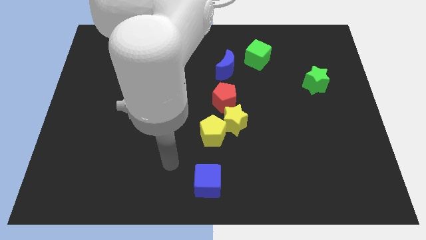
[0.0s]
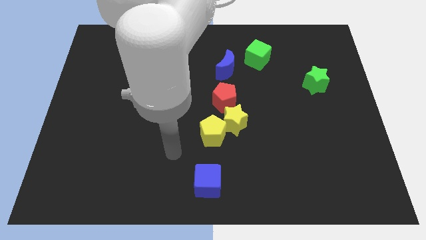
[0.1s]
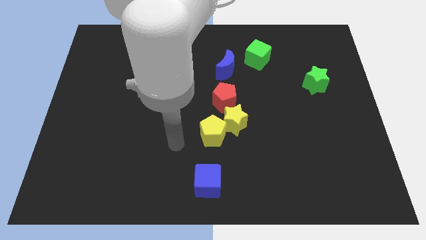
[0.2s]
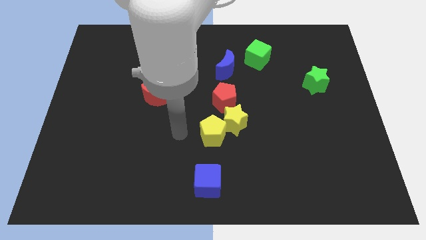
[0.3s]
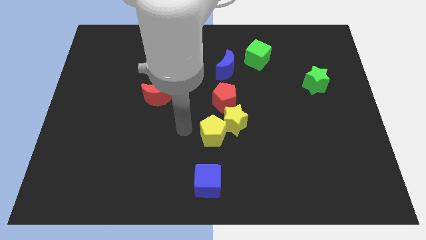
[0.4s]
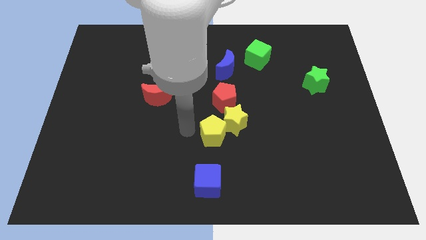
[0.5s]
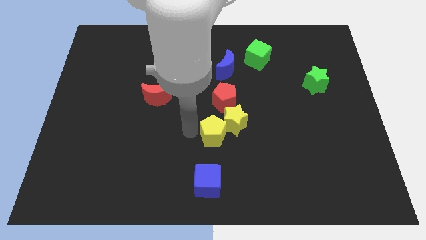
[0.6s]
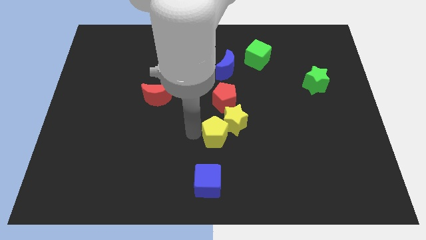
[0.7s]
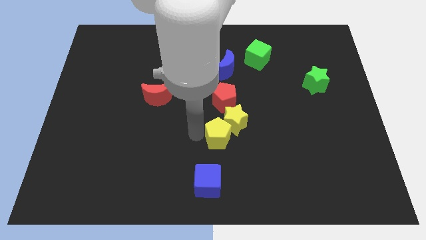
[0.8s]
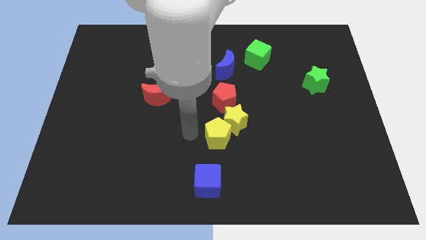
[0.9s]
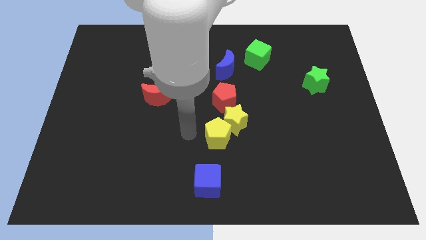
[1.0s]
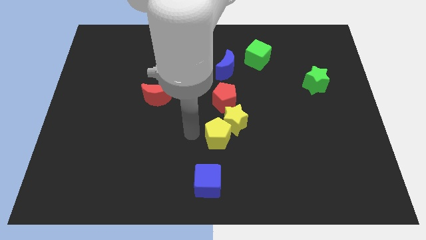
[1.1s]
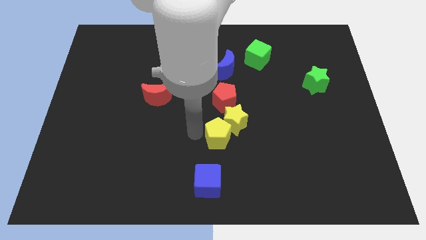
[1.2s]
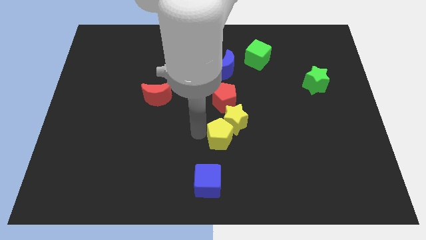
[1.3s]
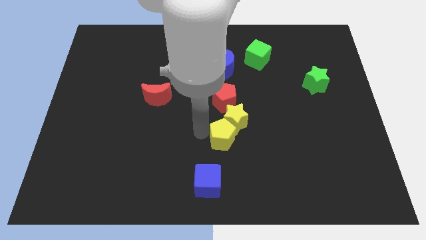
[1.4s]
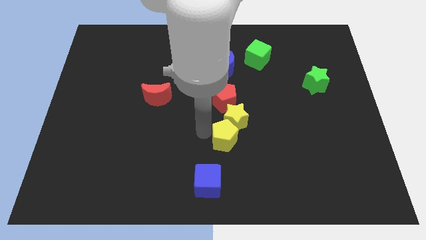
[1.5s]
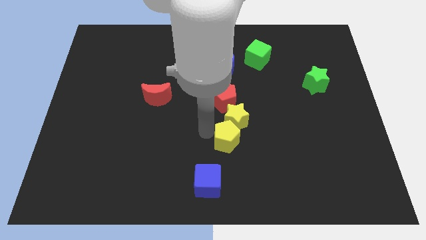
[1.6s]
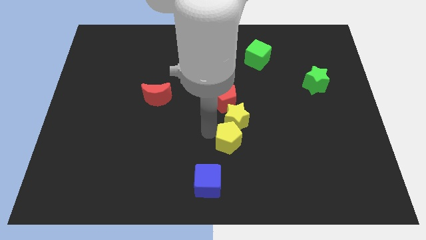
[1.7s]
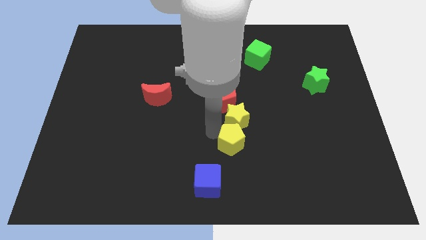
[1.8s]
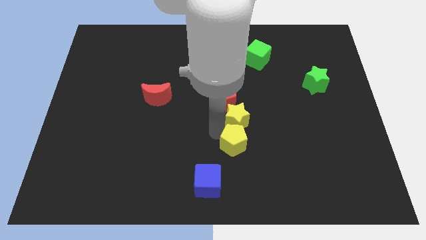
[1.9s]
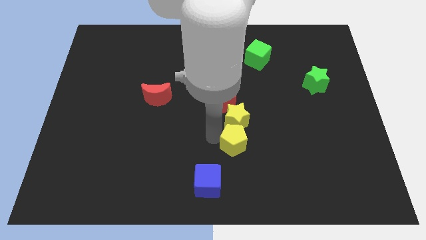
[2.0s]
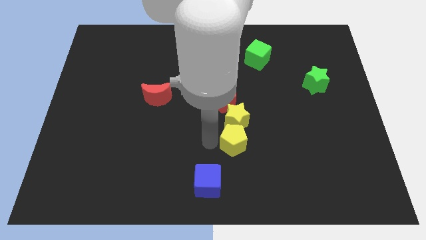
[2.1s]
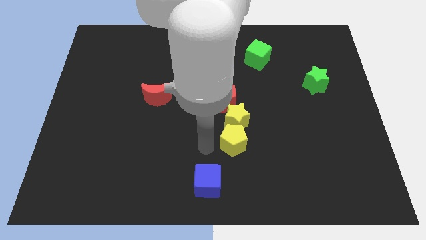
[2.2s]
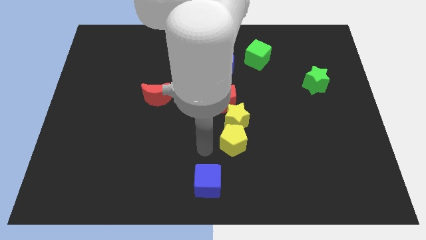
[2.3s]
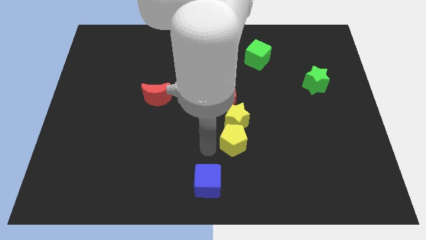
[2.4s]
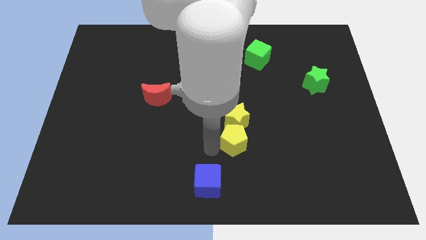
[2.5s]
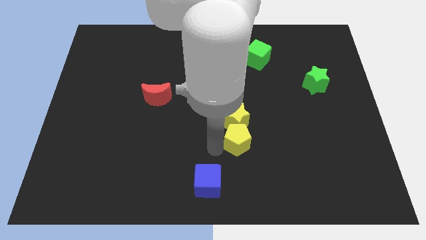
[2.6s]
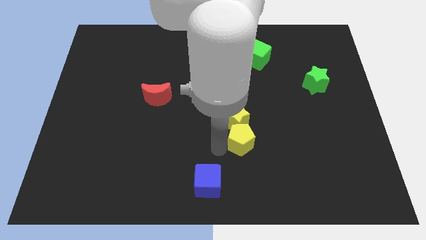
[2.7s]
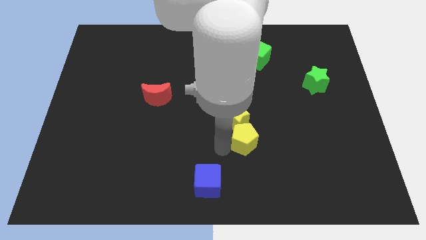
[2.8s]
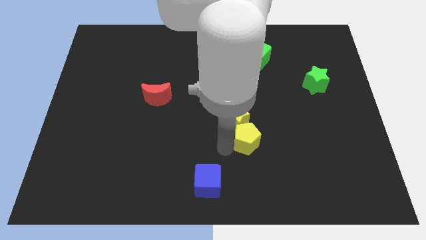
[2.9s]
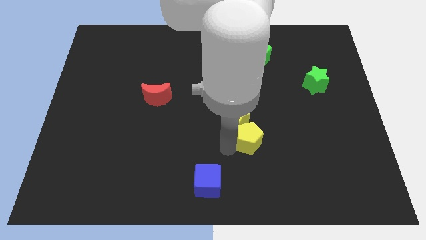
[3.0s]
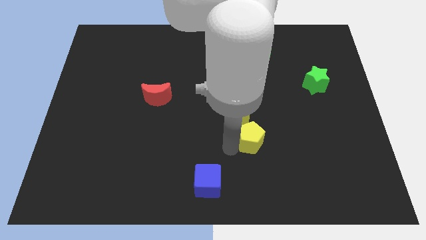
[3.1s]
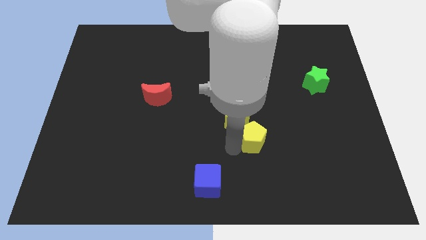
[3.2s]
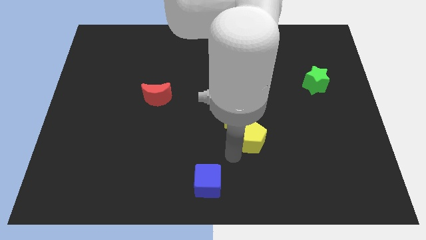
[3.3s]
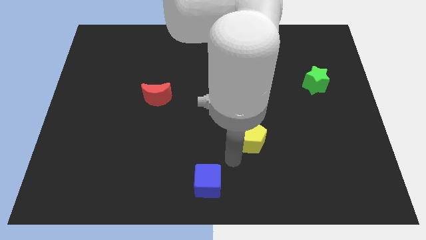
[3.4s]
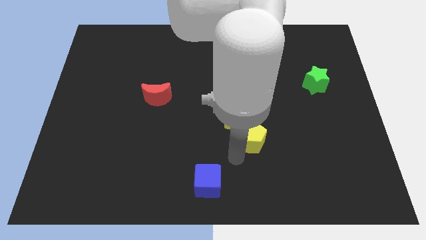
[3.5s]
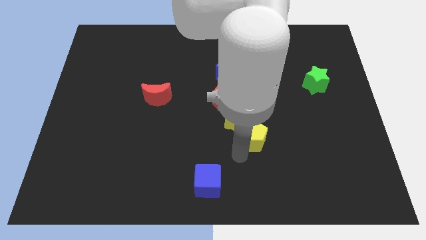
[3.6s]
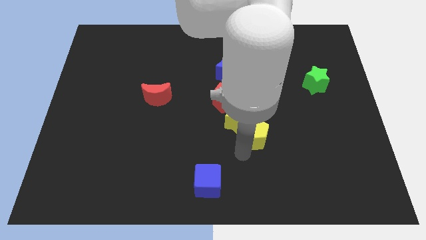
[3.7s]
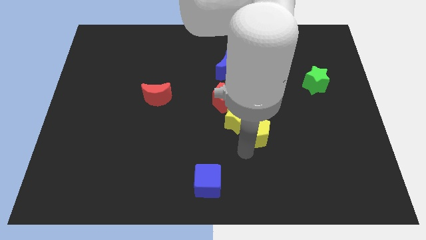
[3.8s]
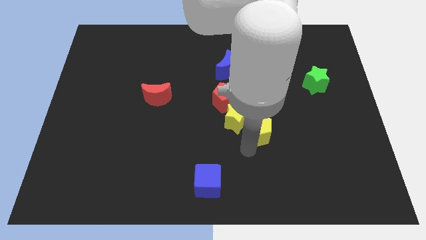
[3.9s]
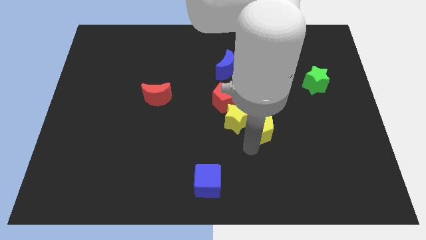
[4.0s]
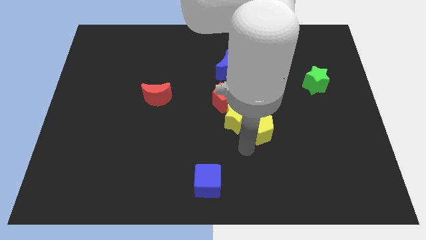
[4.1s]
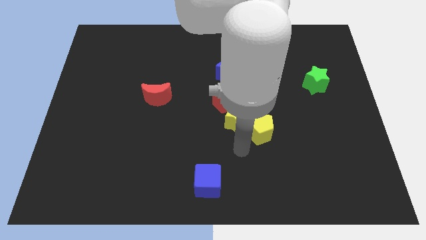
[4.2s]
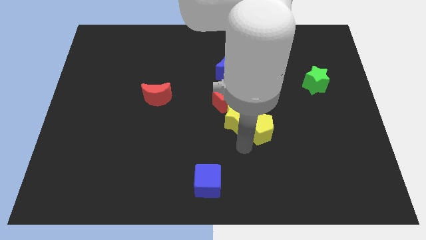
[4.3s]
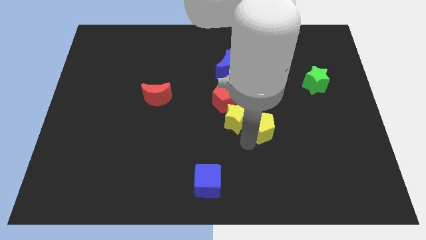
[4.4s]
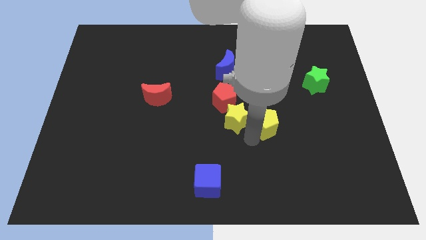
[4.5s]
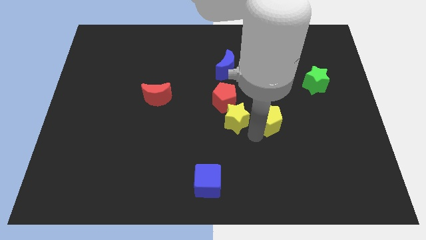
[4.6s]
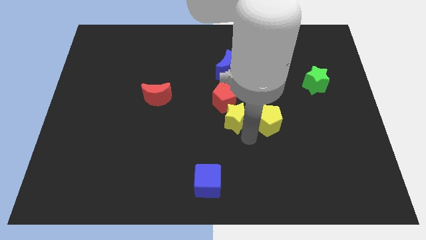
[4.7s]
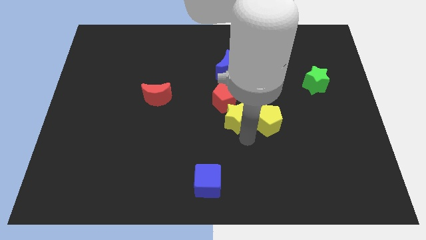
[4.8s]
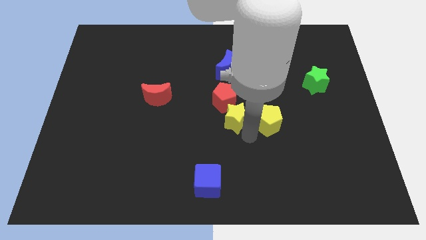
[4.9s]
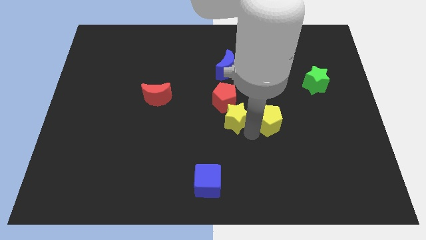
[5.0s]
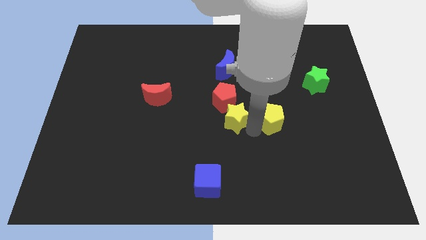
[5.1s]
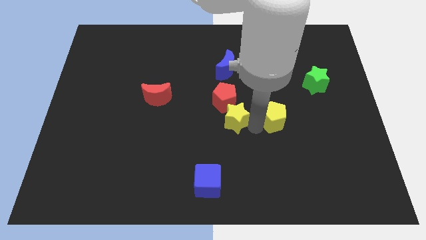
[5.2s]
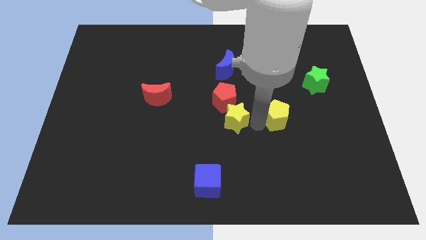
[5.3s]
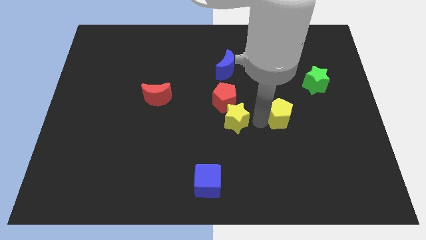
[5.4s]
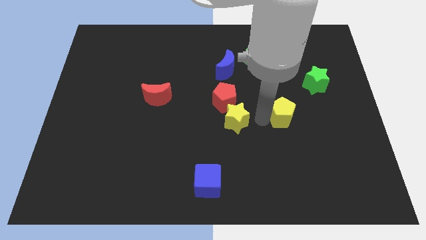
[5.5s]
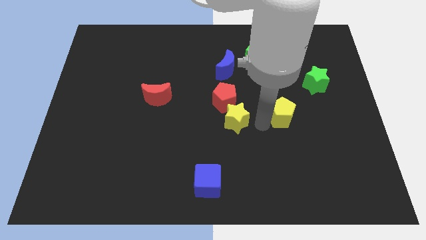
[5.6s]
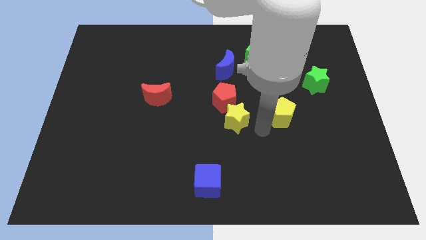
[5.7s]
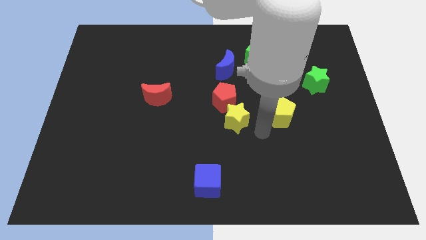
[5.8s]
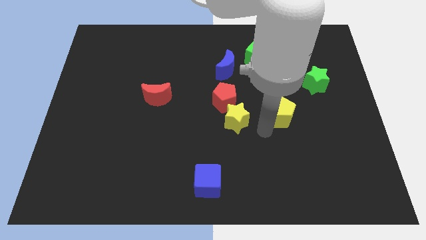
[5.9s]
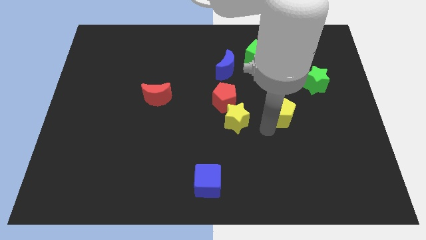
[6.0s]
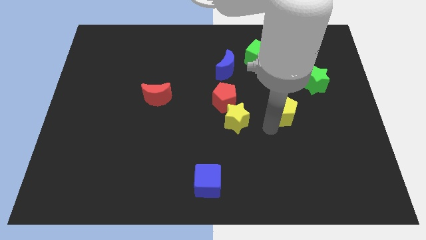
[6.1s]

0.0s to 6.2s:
push the yellow pentagon diagonally down and to the left of the green star

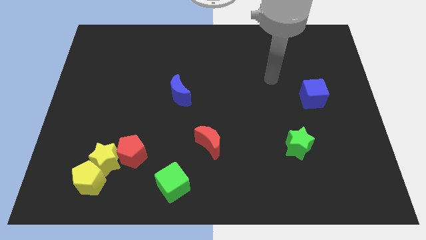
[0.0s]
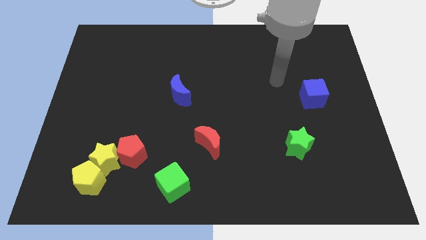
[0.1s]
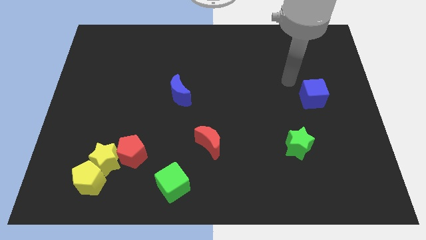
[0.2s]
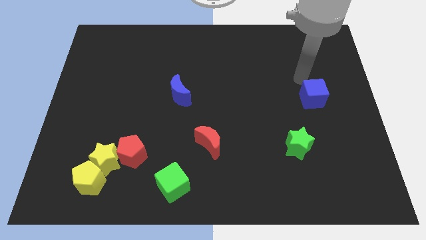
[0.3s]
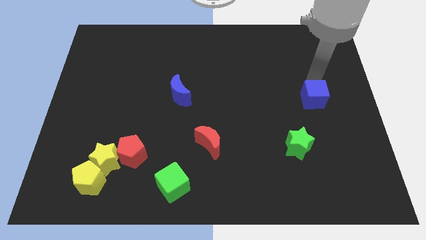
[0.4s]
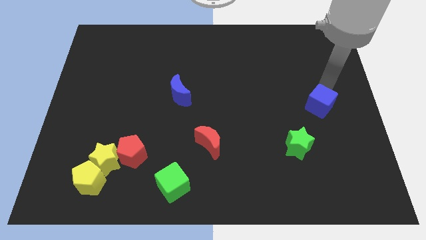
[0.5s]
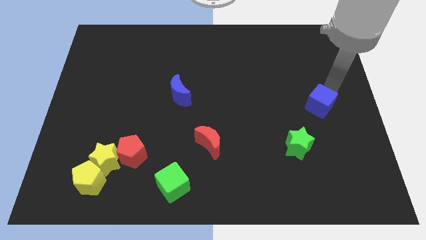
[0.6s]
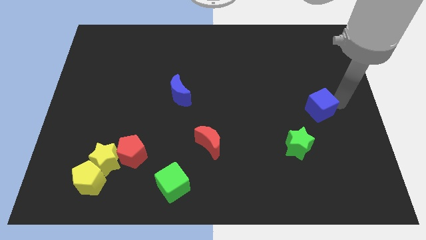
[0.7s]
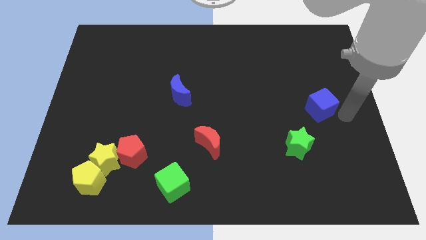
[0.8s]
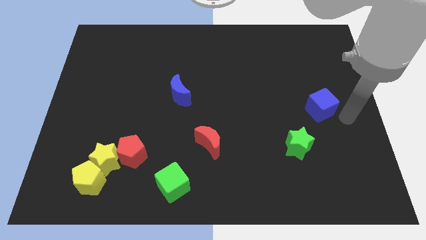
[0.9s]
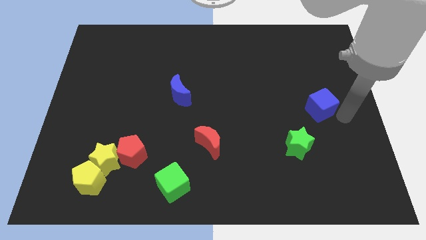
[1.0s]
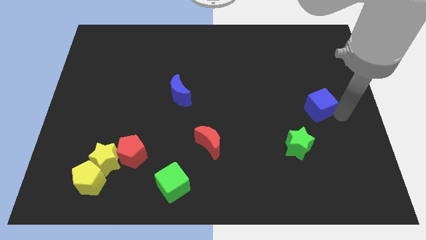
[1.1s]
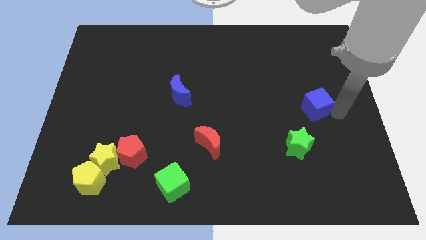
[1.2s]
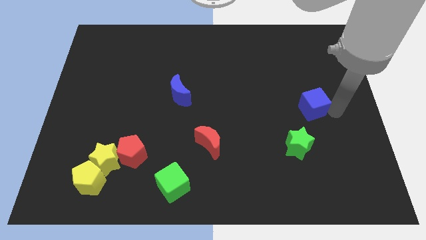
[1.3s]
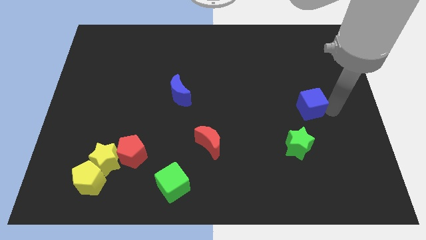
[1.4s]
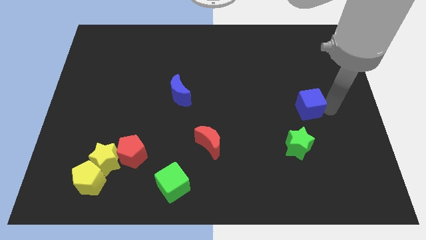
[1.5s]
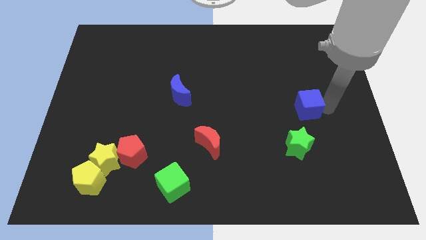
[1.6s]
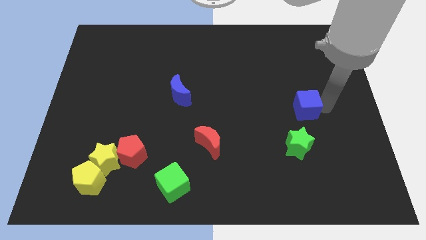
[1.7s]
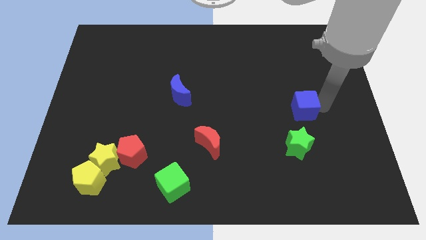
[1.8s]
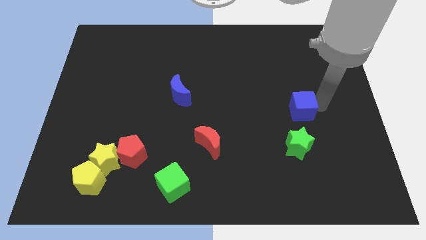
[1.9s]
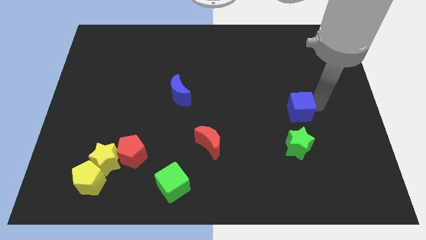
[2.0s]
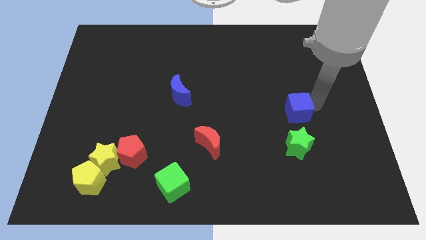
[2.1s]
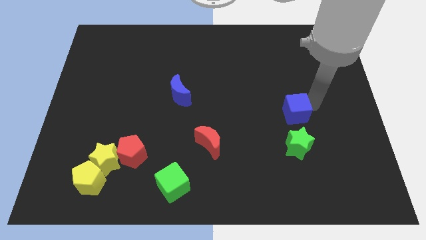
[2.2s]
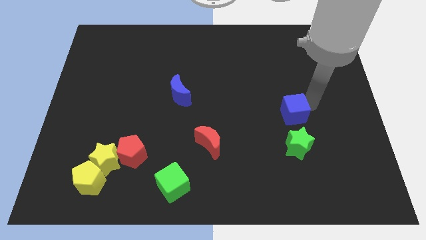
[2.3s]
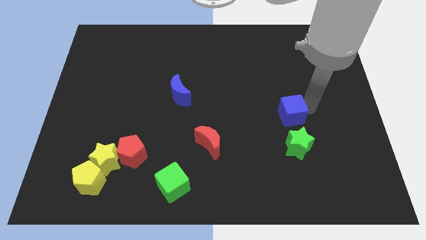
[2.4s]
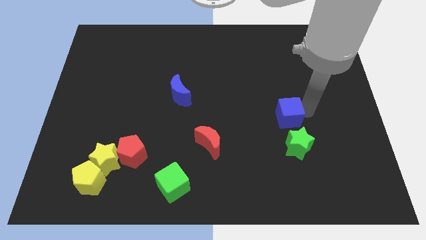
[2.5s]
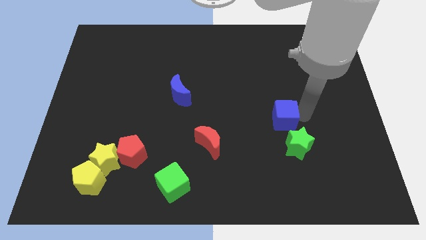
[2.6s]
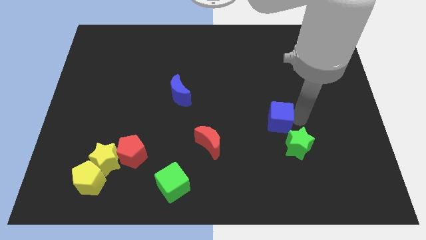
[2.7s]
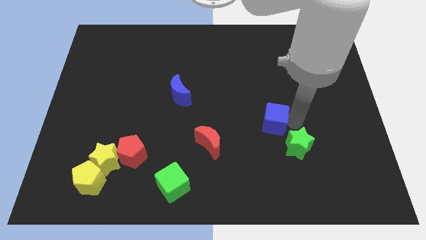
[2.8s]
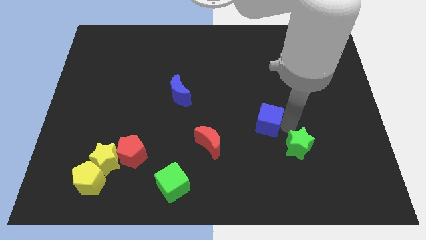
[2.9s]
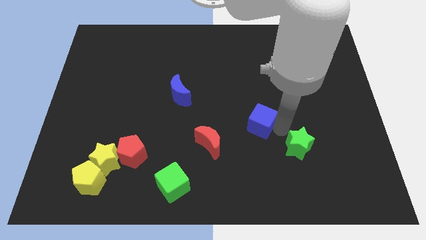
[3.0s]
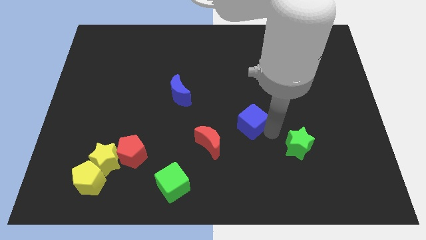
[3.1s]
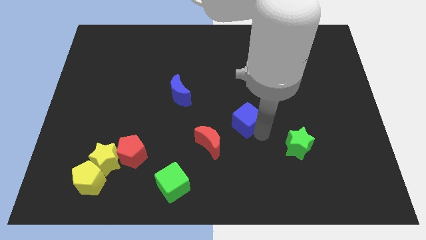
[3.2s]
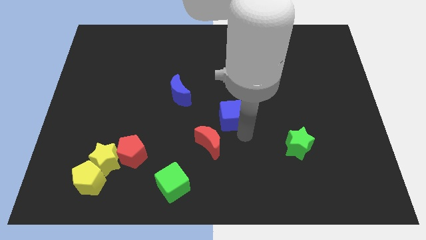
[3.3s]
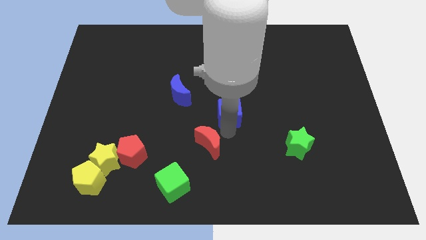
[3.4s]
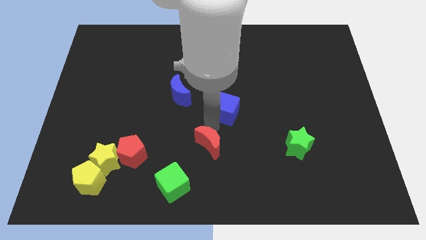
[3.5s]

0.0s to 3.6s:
slide the blue cube right of the blue moon
